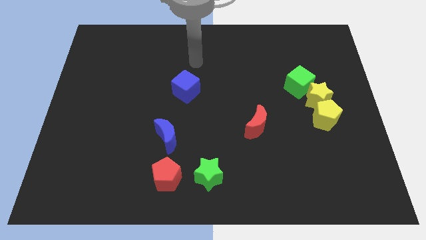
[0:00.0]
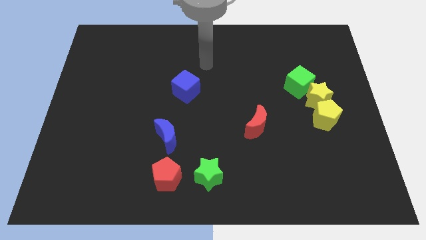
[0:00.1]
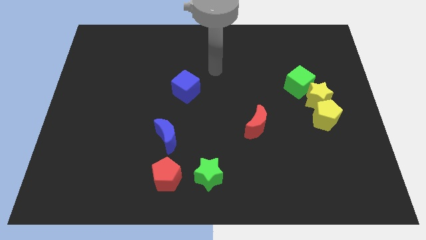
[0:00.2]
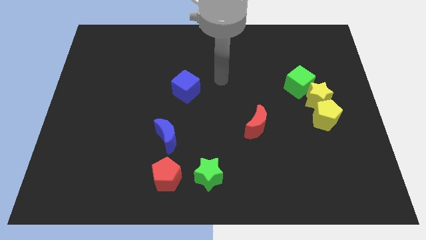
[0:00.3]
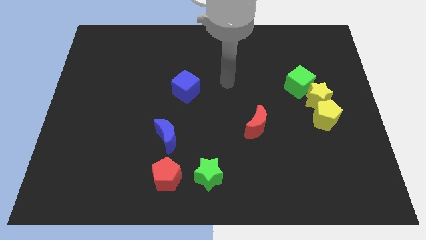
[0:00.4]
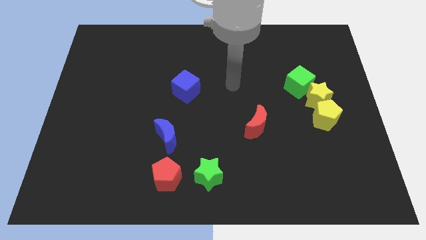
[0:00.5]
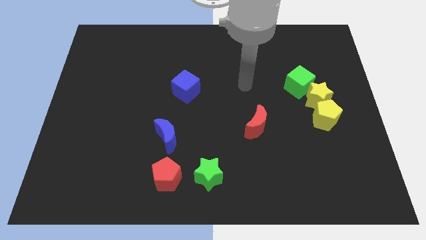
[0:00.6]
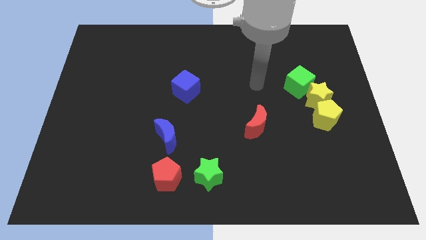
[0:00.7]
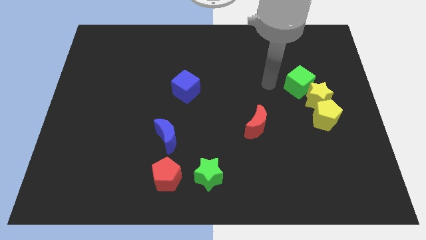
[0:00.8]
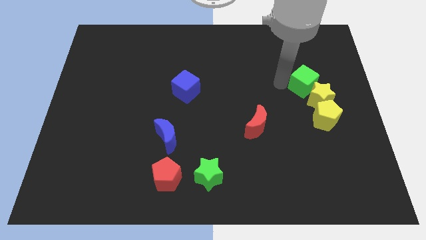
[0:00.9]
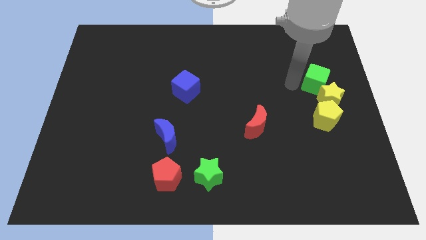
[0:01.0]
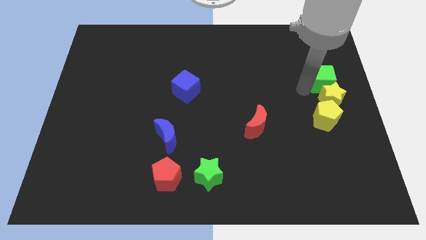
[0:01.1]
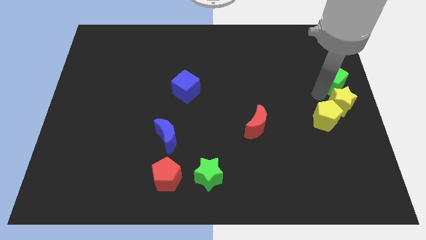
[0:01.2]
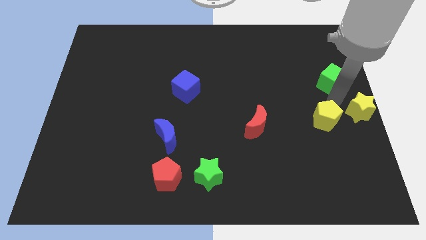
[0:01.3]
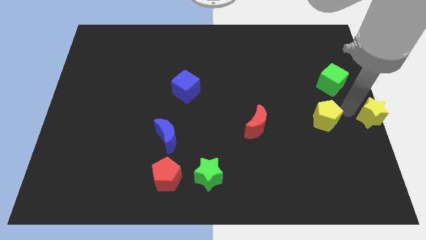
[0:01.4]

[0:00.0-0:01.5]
move the yellow pentagon away from the yellow star

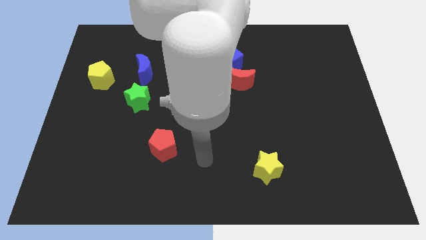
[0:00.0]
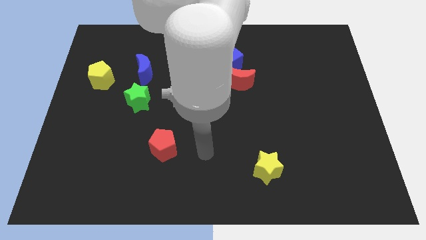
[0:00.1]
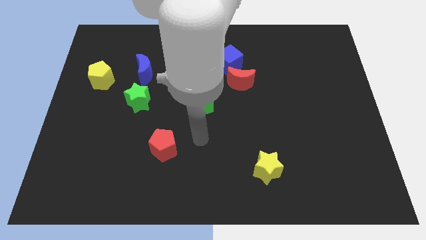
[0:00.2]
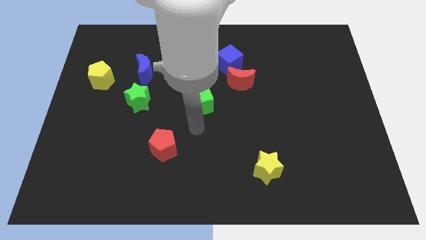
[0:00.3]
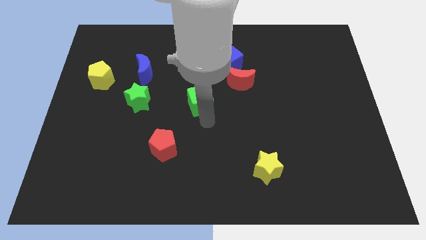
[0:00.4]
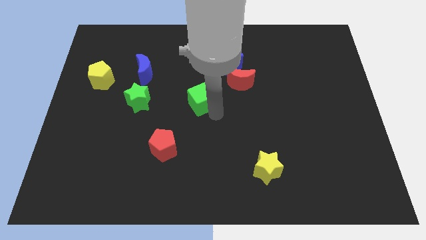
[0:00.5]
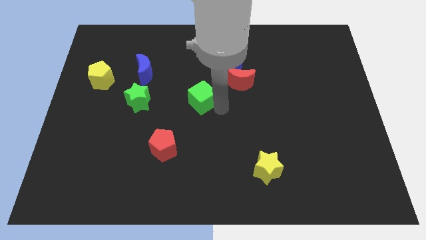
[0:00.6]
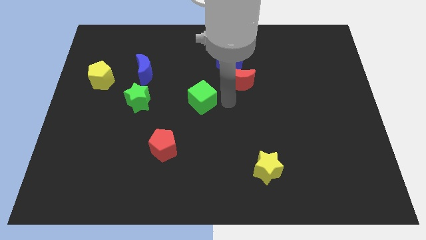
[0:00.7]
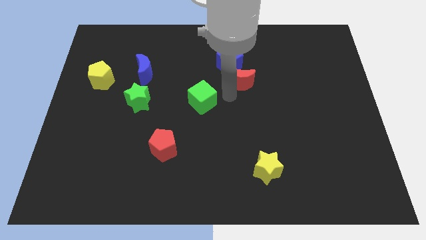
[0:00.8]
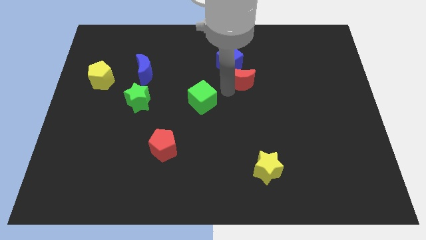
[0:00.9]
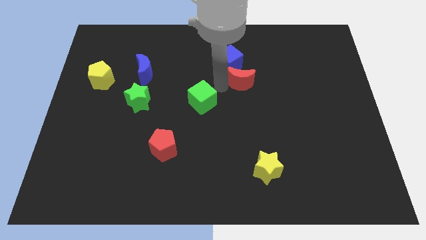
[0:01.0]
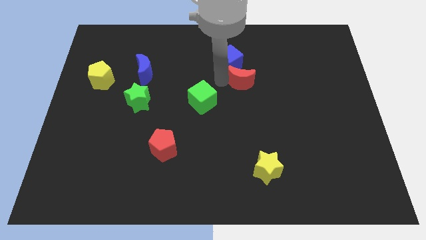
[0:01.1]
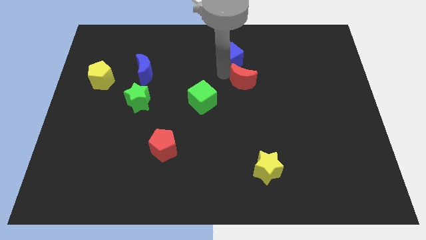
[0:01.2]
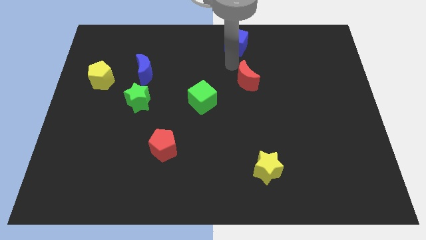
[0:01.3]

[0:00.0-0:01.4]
pull the red moon apart from the blue cube

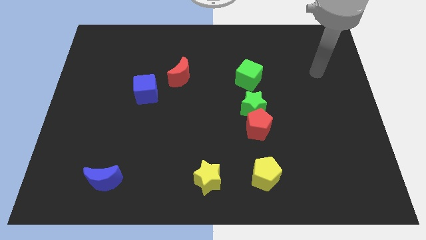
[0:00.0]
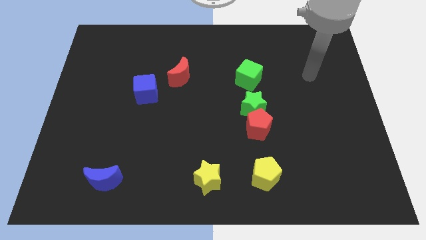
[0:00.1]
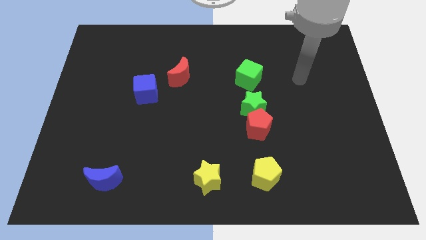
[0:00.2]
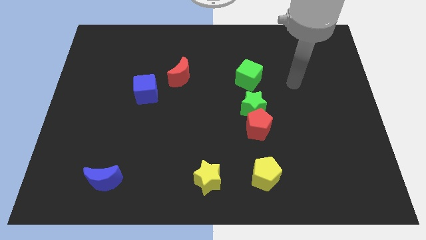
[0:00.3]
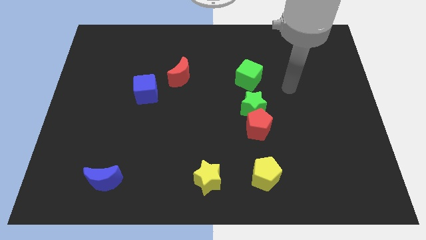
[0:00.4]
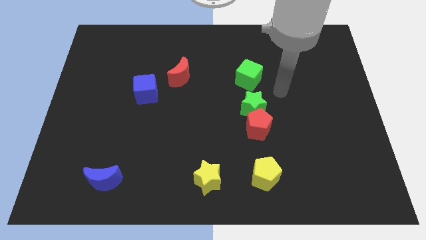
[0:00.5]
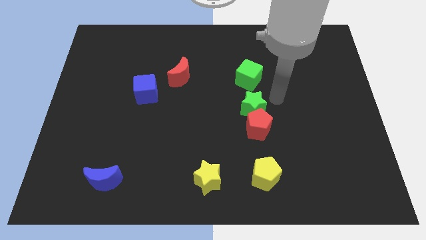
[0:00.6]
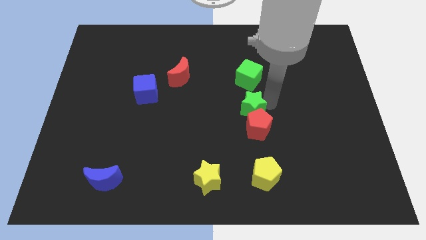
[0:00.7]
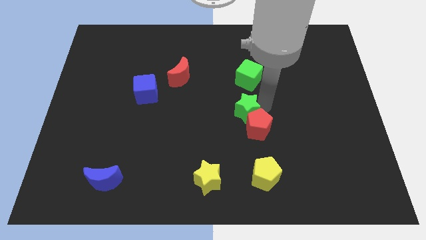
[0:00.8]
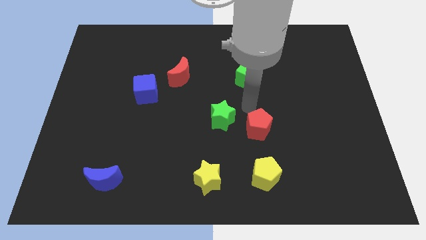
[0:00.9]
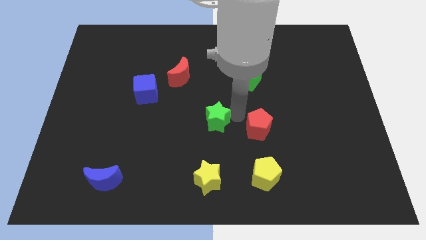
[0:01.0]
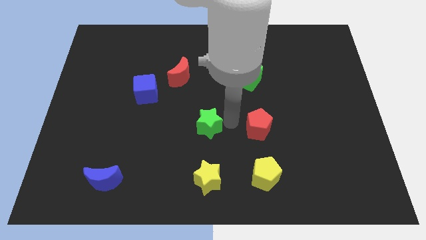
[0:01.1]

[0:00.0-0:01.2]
separate the red pentagon from the green star

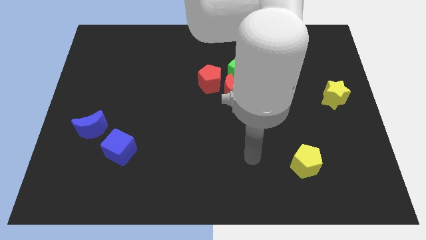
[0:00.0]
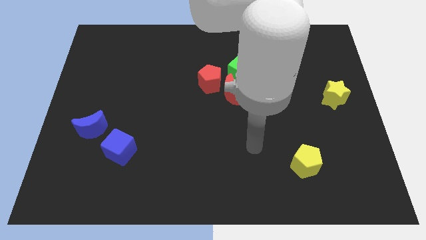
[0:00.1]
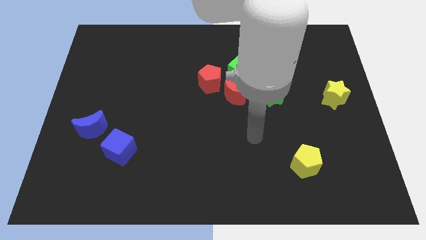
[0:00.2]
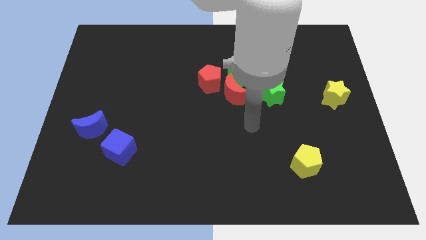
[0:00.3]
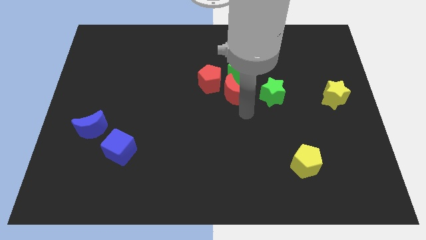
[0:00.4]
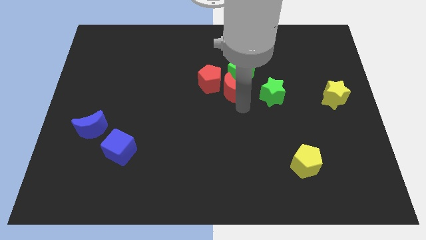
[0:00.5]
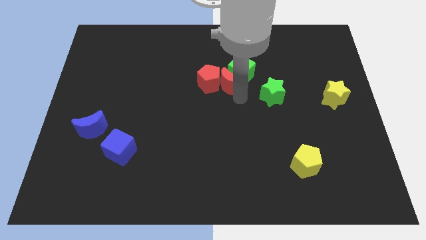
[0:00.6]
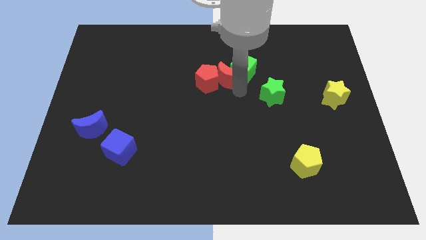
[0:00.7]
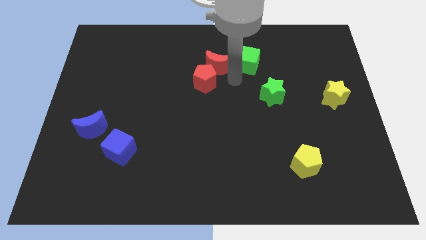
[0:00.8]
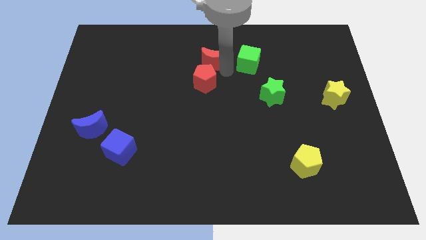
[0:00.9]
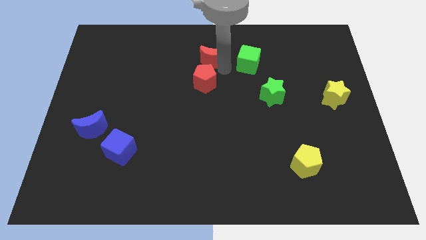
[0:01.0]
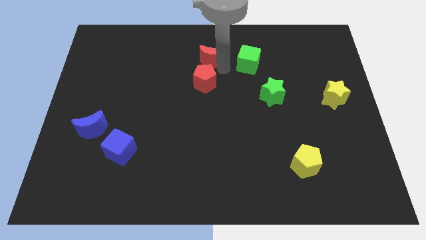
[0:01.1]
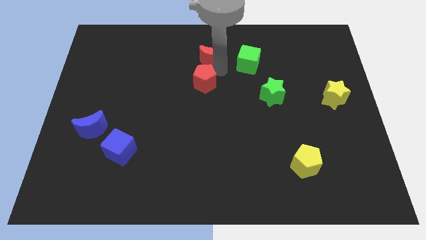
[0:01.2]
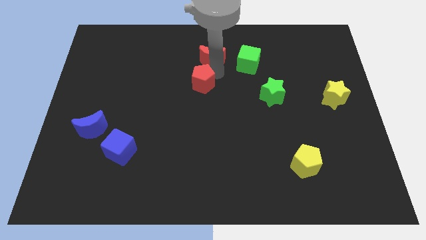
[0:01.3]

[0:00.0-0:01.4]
separate the red pentagon from the red moon and green cube

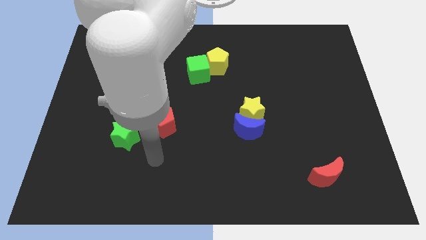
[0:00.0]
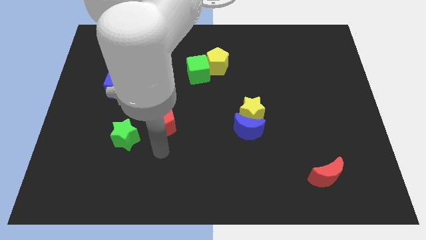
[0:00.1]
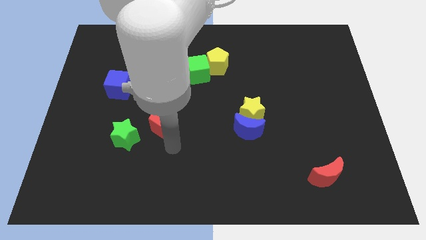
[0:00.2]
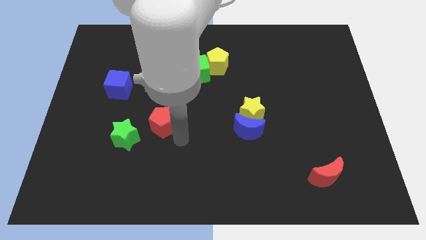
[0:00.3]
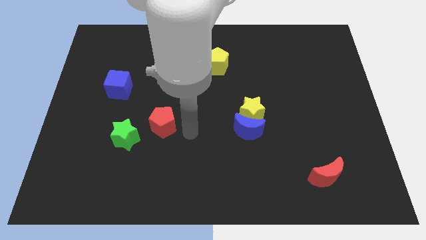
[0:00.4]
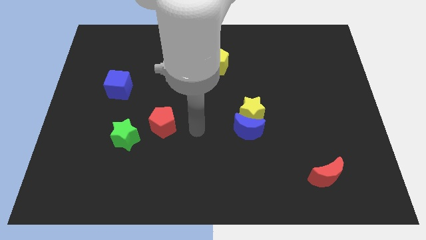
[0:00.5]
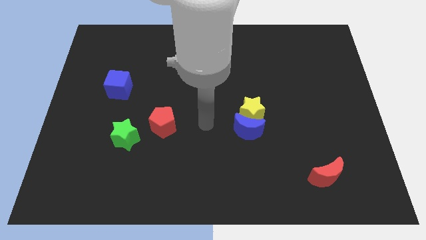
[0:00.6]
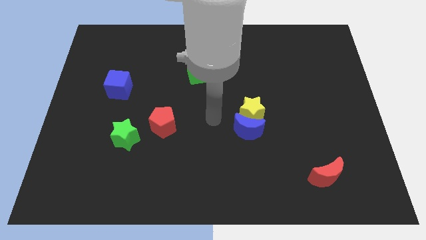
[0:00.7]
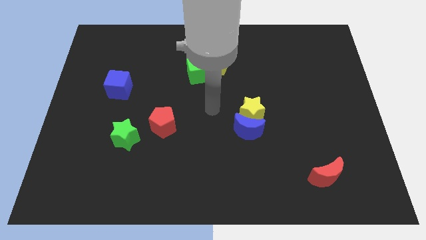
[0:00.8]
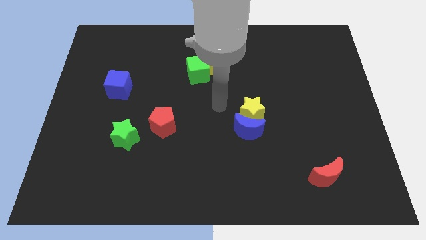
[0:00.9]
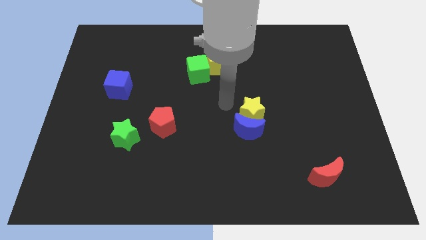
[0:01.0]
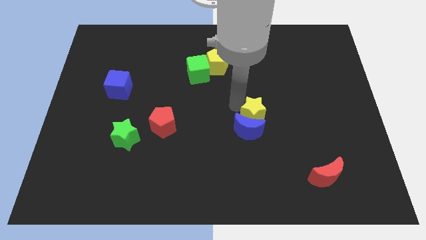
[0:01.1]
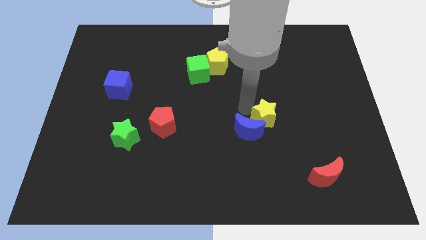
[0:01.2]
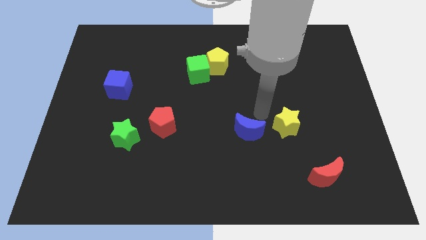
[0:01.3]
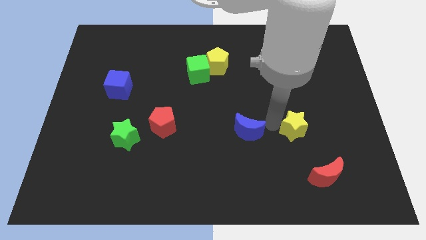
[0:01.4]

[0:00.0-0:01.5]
pull the blue moon apart from the yellow star

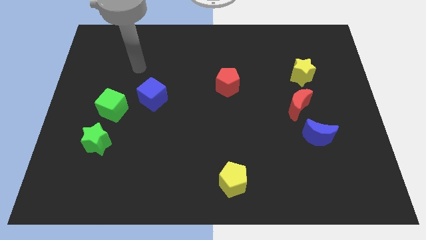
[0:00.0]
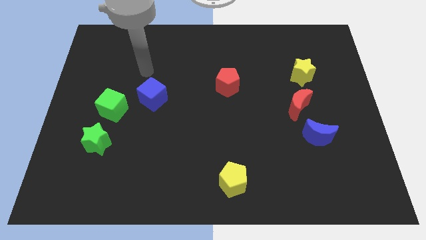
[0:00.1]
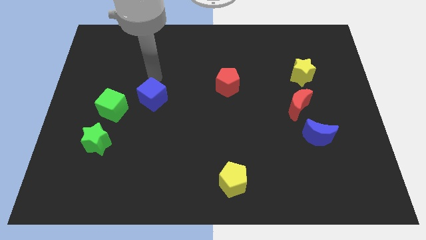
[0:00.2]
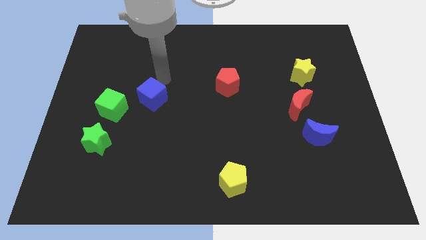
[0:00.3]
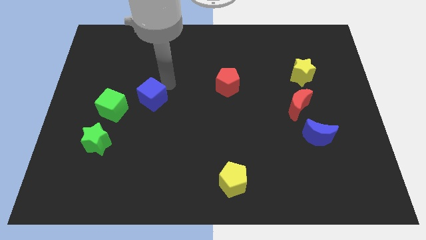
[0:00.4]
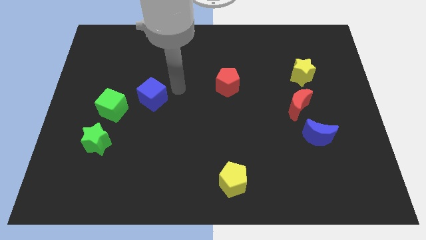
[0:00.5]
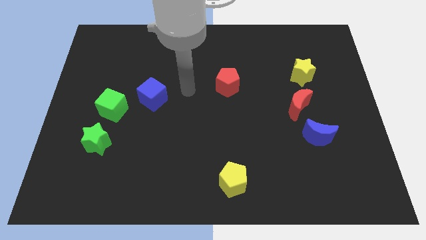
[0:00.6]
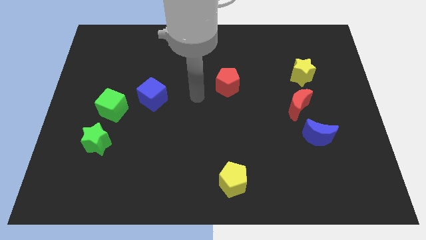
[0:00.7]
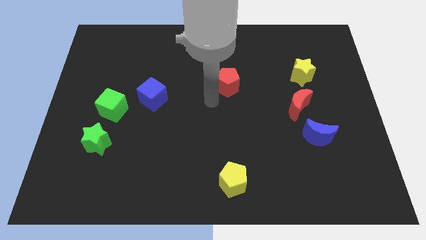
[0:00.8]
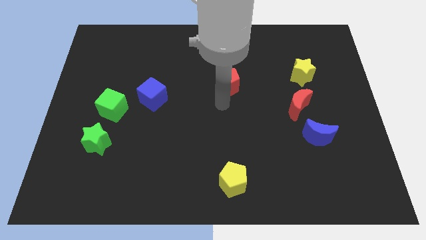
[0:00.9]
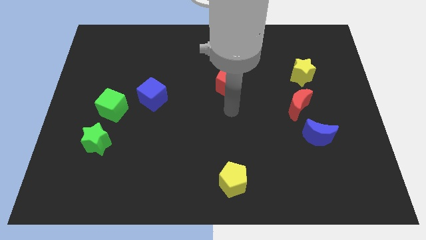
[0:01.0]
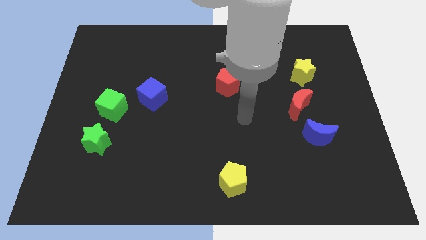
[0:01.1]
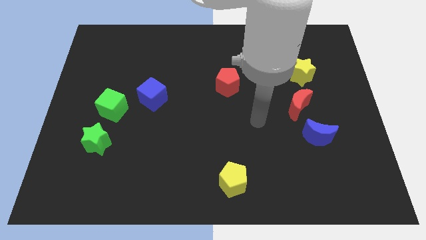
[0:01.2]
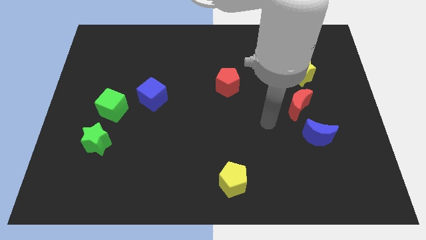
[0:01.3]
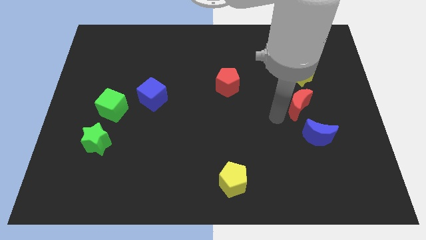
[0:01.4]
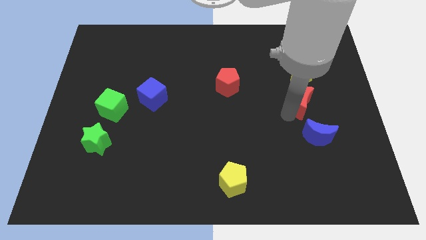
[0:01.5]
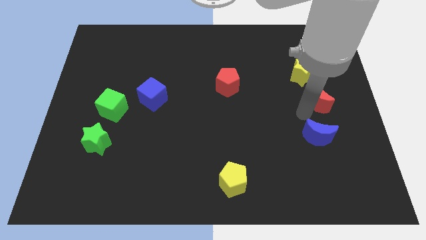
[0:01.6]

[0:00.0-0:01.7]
pull the blue moon apart from the red moon

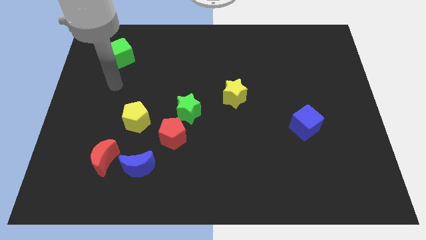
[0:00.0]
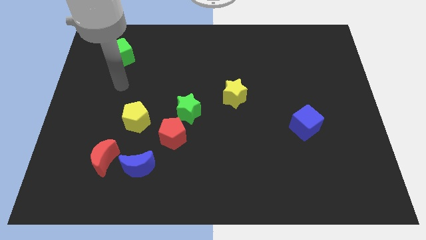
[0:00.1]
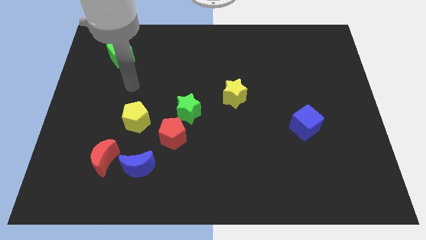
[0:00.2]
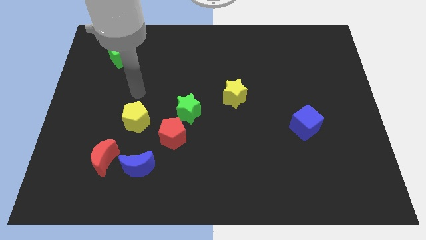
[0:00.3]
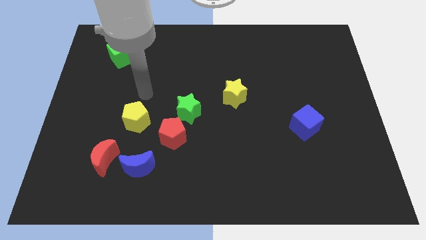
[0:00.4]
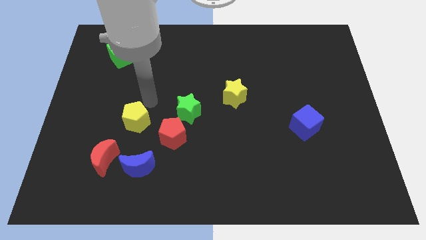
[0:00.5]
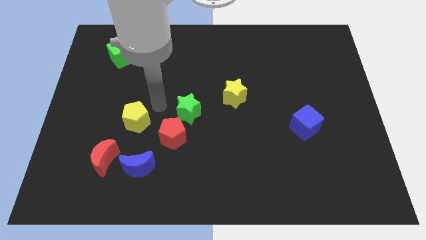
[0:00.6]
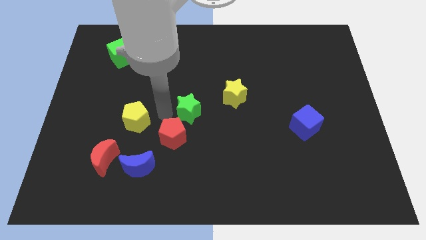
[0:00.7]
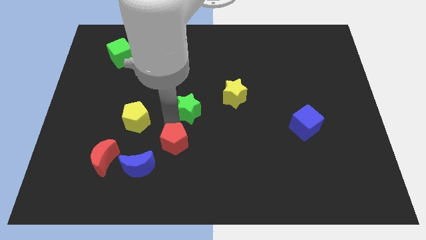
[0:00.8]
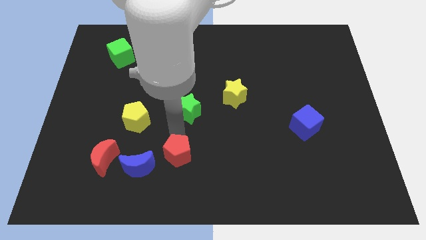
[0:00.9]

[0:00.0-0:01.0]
separate the green star from the red pentagon
